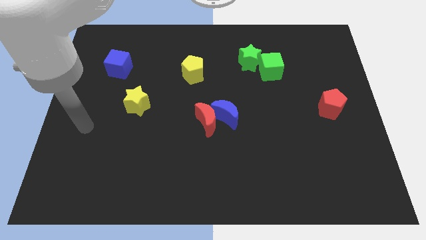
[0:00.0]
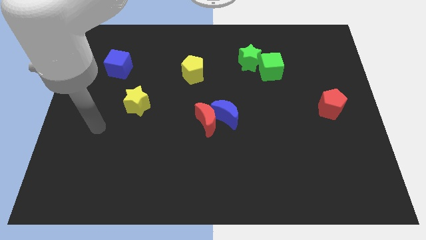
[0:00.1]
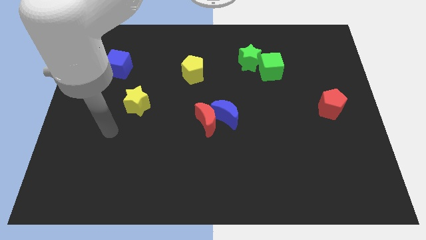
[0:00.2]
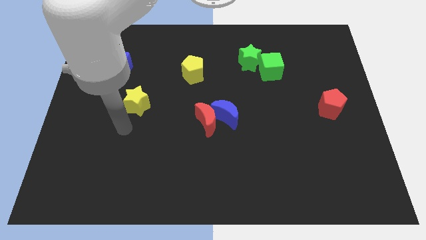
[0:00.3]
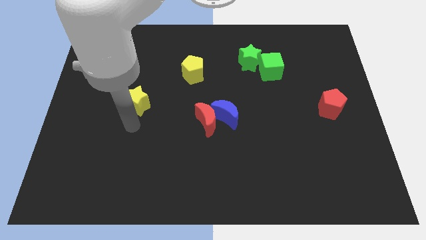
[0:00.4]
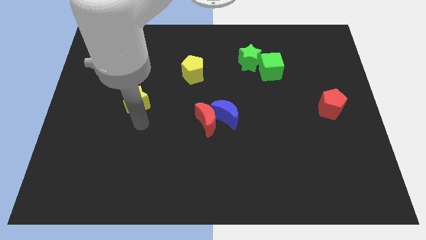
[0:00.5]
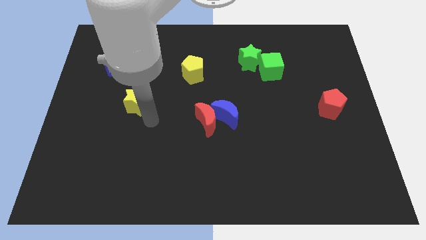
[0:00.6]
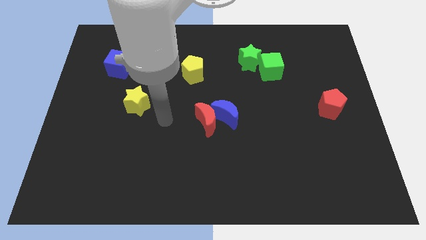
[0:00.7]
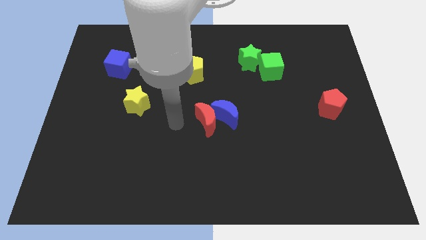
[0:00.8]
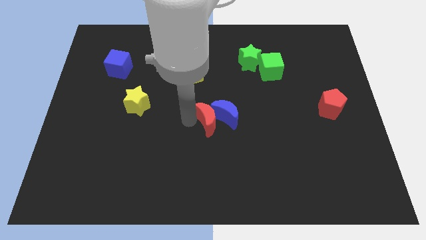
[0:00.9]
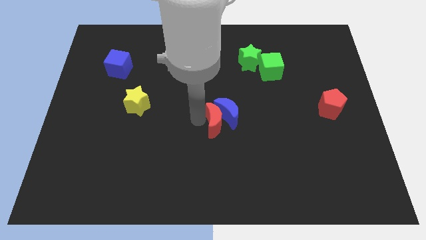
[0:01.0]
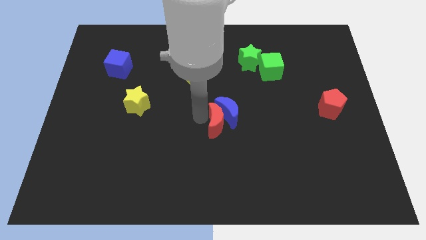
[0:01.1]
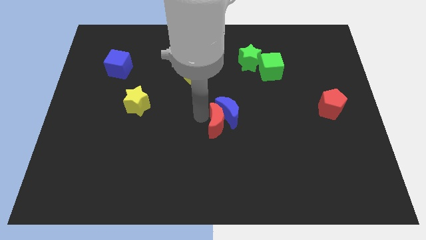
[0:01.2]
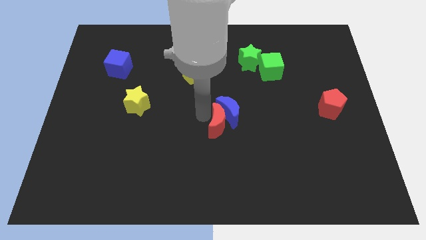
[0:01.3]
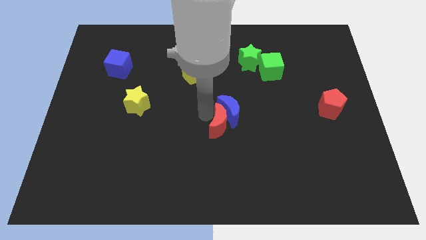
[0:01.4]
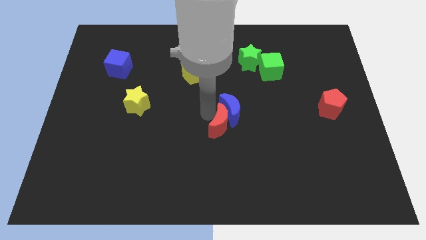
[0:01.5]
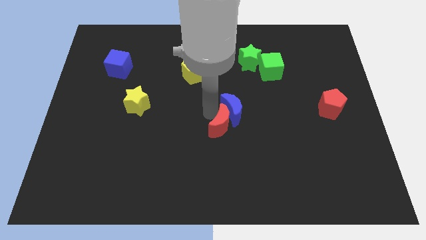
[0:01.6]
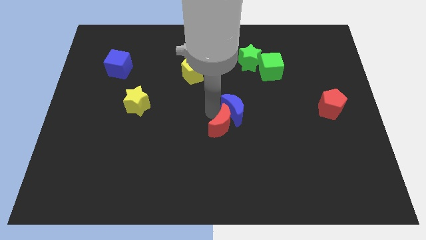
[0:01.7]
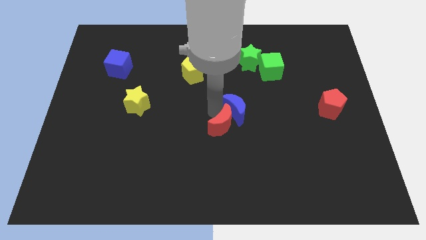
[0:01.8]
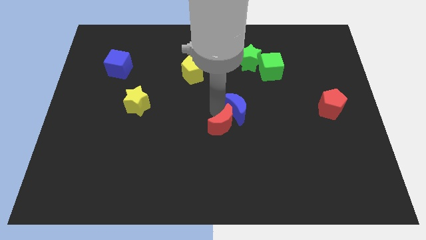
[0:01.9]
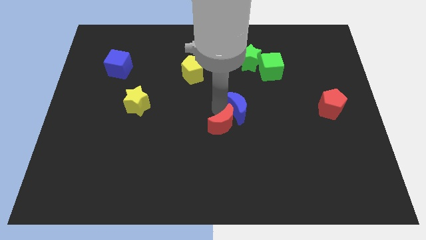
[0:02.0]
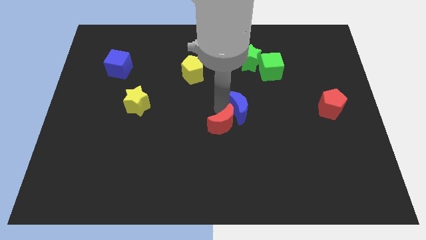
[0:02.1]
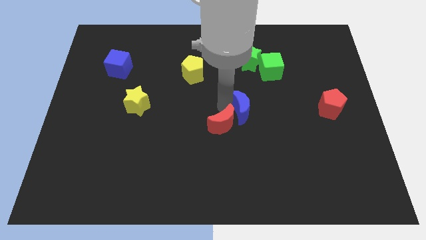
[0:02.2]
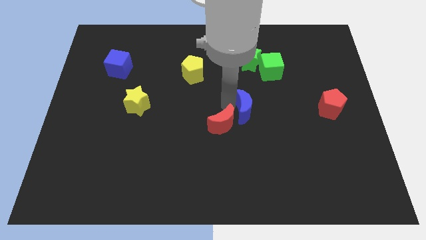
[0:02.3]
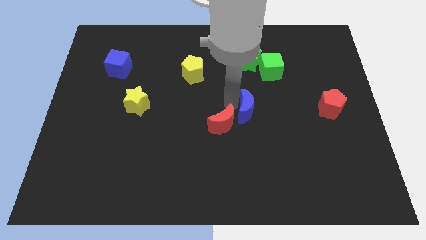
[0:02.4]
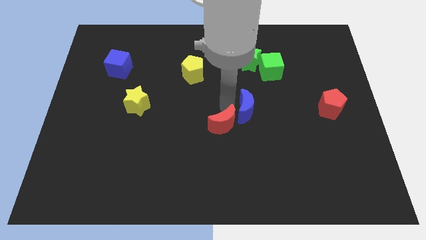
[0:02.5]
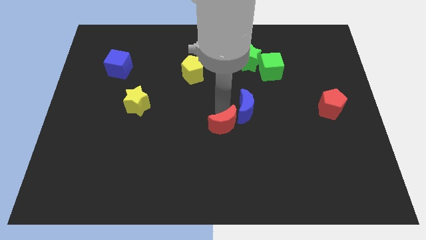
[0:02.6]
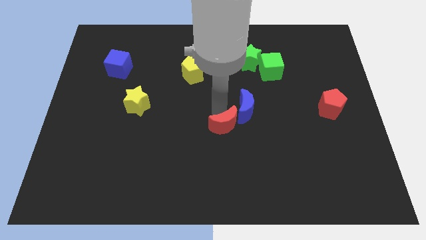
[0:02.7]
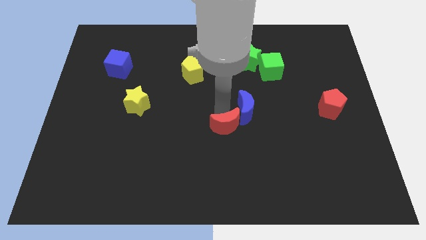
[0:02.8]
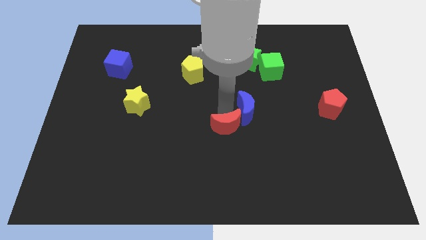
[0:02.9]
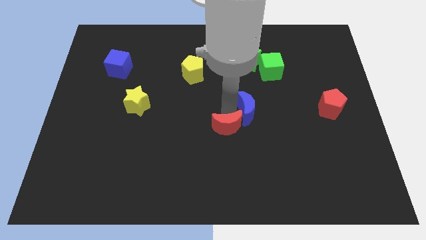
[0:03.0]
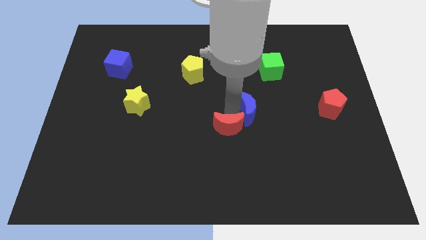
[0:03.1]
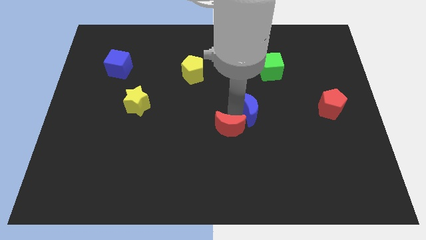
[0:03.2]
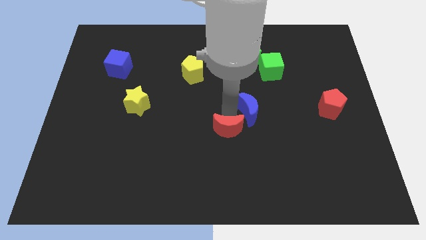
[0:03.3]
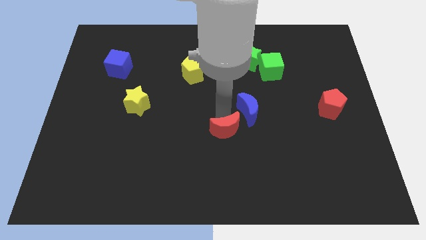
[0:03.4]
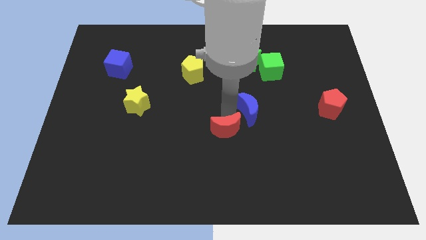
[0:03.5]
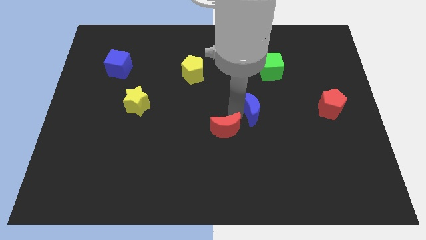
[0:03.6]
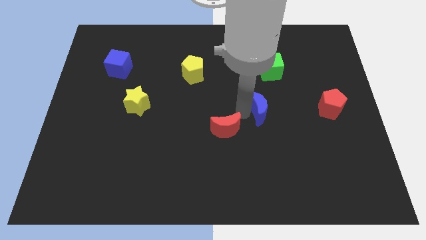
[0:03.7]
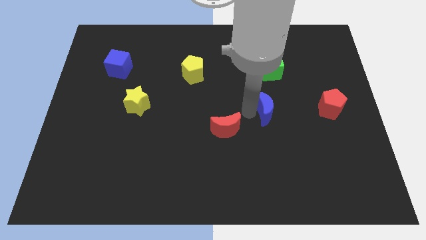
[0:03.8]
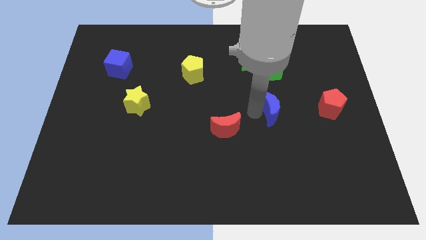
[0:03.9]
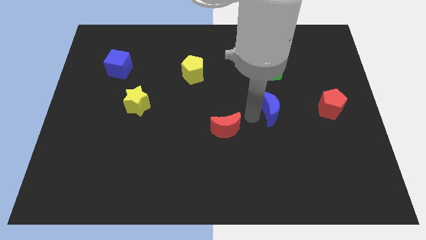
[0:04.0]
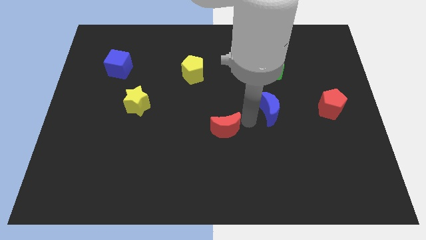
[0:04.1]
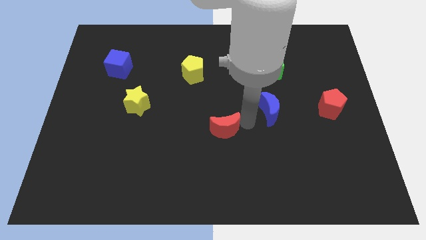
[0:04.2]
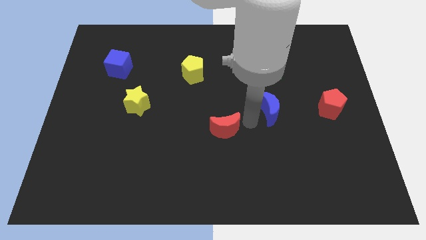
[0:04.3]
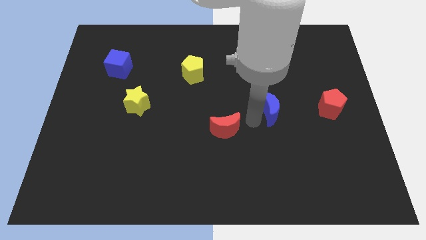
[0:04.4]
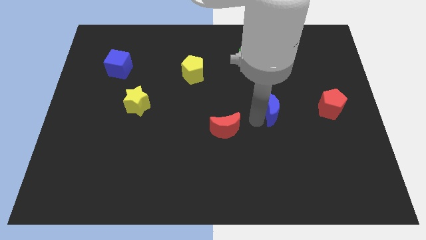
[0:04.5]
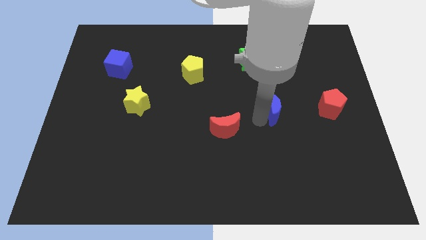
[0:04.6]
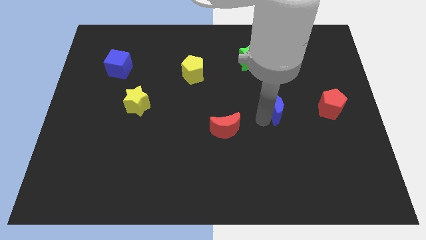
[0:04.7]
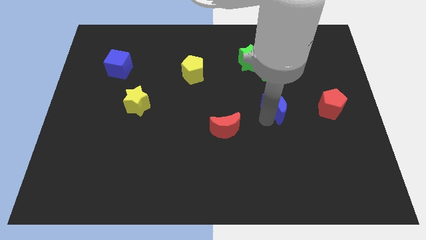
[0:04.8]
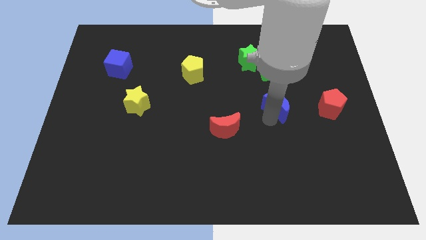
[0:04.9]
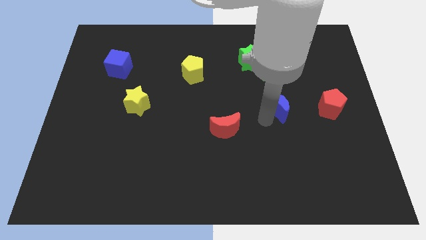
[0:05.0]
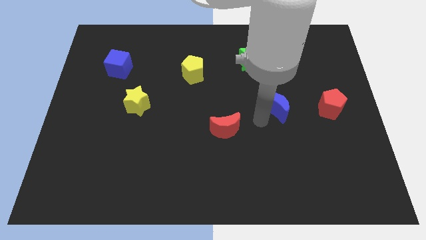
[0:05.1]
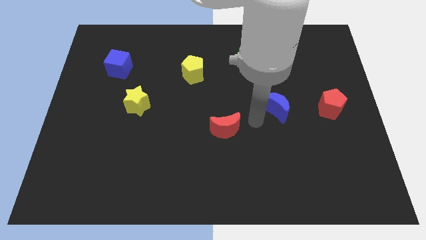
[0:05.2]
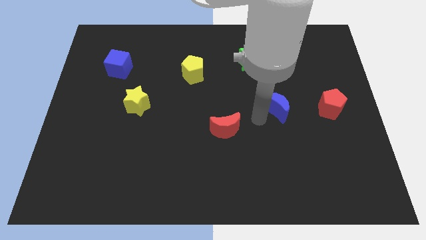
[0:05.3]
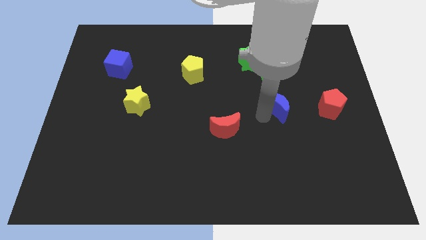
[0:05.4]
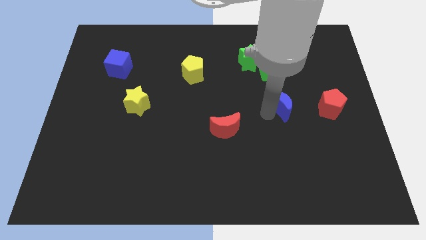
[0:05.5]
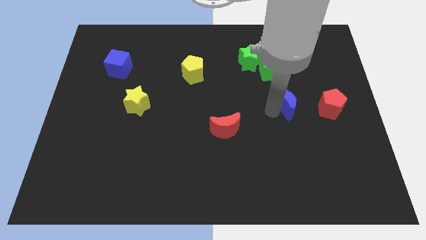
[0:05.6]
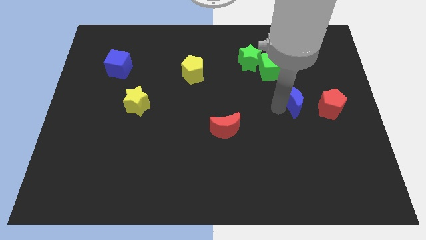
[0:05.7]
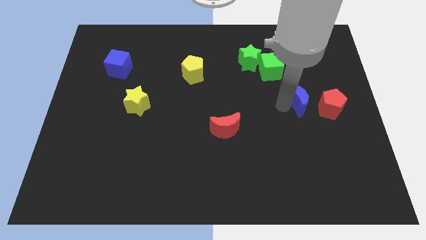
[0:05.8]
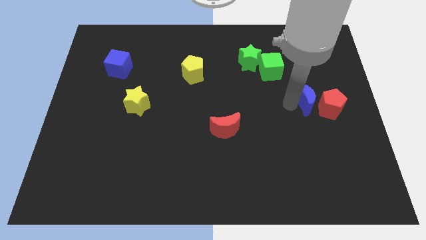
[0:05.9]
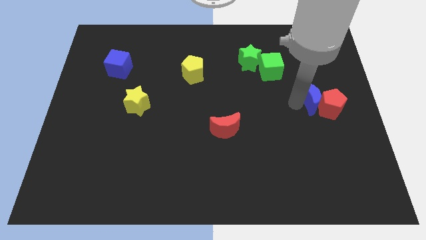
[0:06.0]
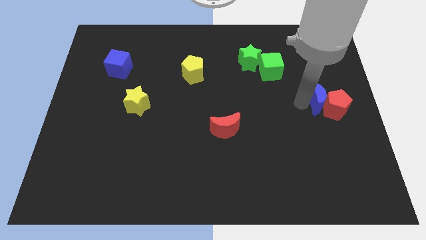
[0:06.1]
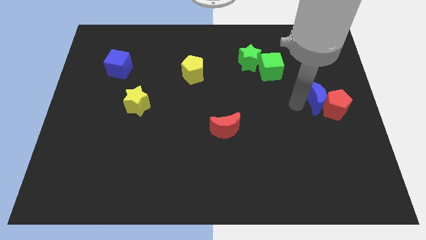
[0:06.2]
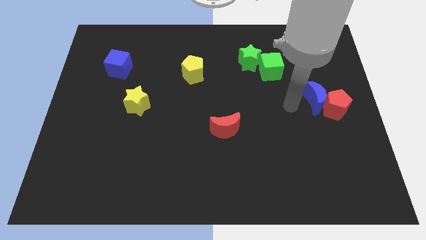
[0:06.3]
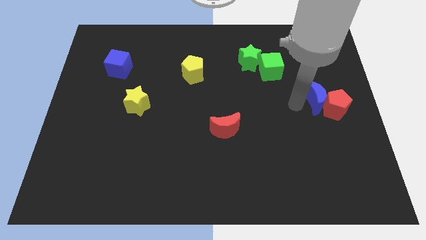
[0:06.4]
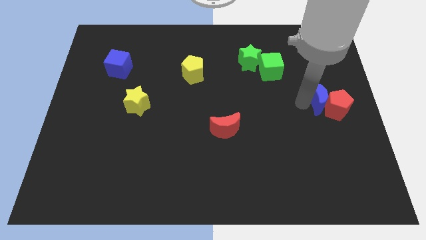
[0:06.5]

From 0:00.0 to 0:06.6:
move the blue moon to the center right

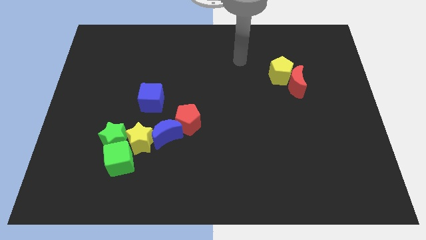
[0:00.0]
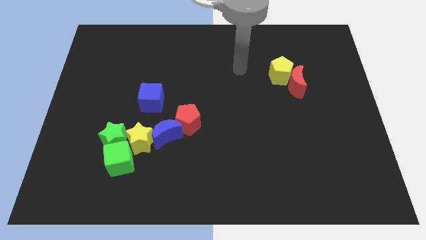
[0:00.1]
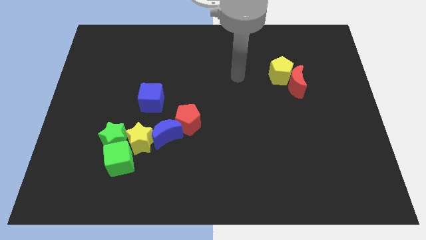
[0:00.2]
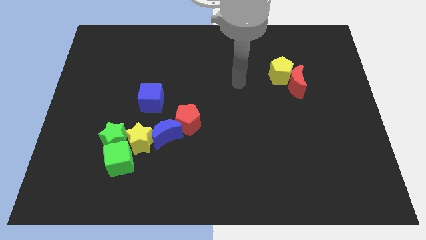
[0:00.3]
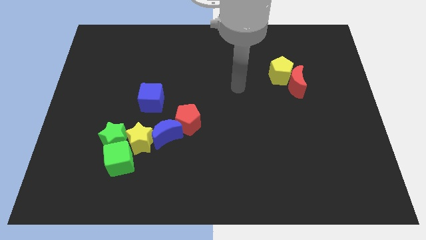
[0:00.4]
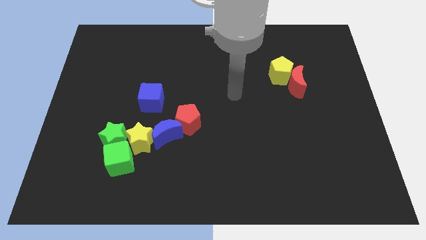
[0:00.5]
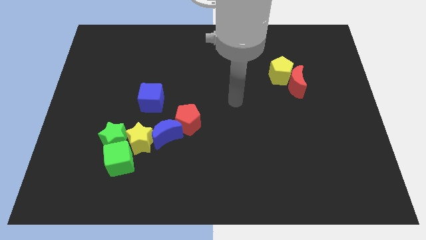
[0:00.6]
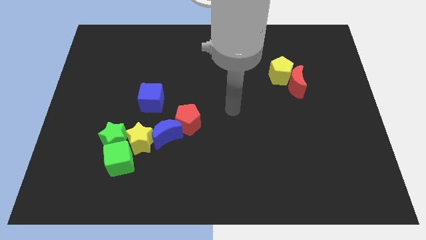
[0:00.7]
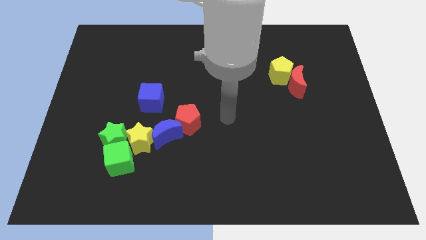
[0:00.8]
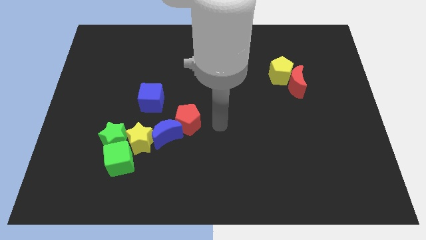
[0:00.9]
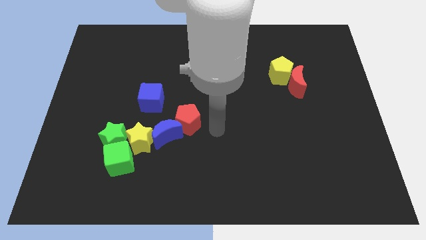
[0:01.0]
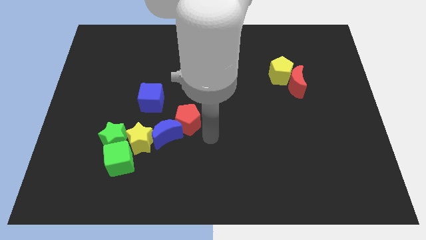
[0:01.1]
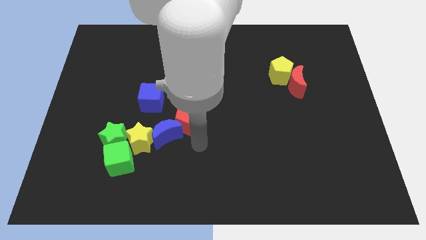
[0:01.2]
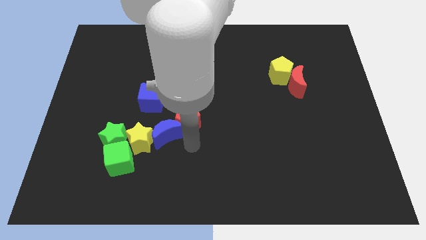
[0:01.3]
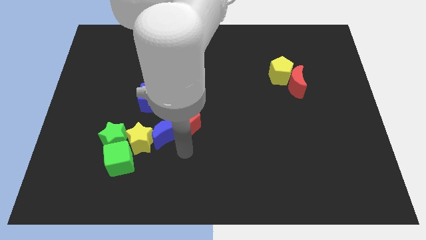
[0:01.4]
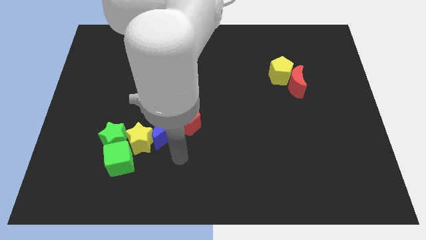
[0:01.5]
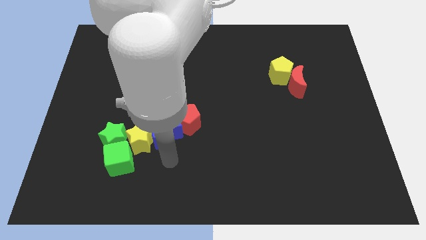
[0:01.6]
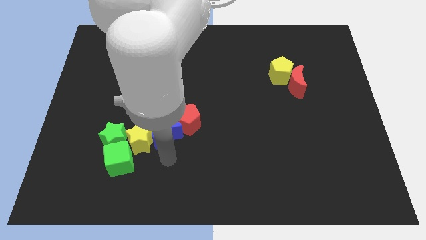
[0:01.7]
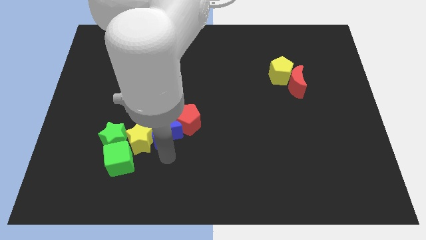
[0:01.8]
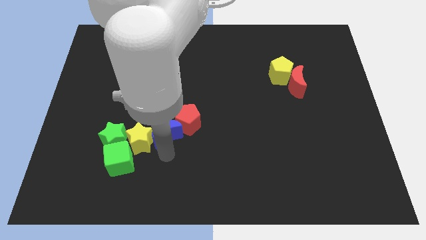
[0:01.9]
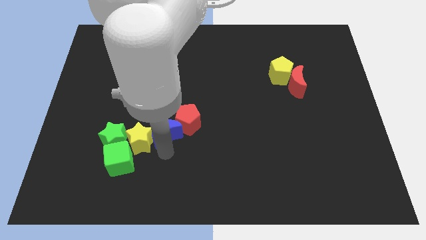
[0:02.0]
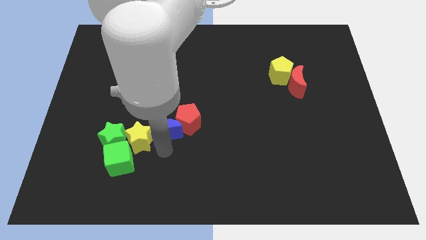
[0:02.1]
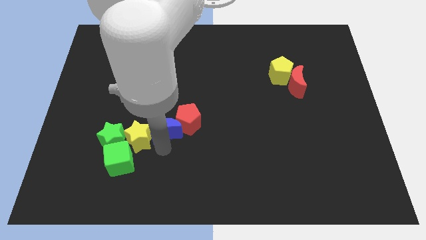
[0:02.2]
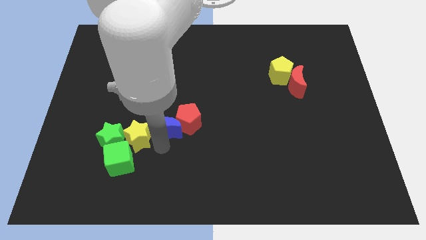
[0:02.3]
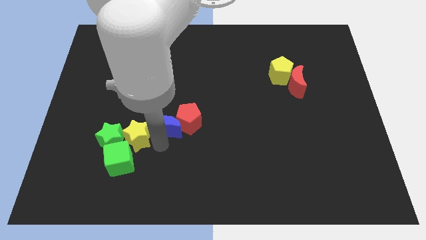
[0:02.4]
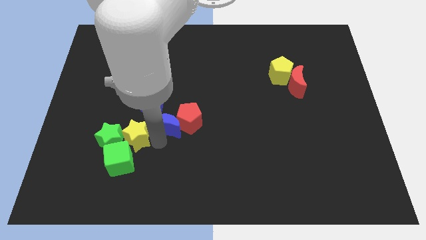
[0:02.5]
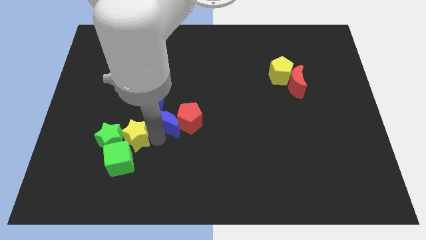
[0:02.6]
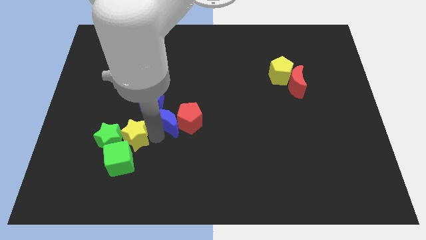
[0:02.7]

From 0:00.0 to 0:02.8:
push the blue moon to the middle of the board
